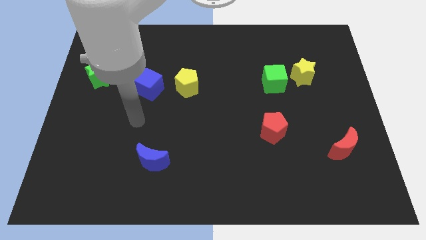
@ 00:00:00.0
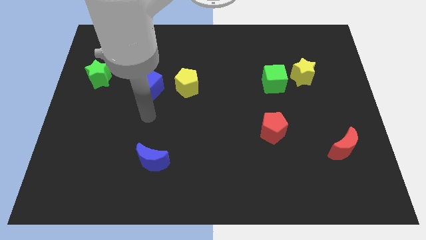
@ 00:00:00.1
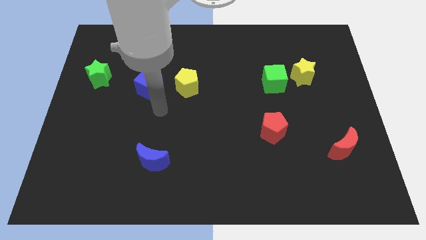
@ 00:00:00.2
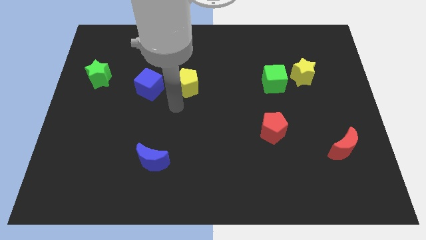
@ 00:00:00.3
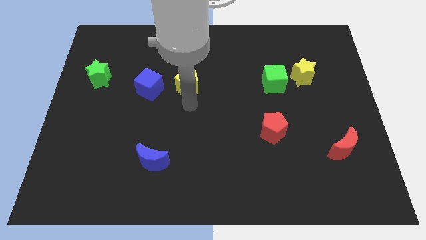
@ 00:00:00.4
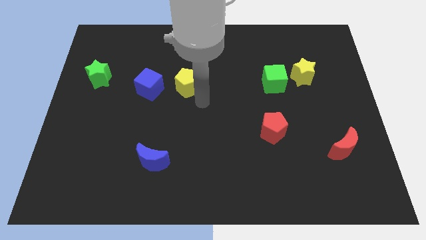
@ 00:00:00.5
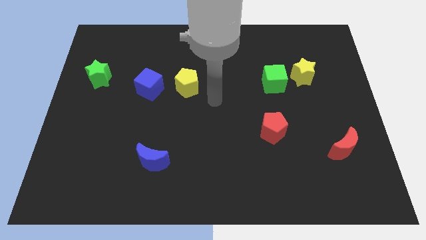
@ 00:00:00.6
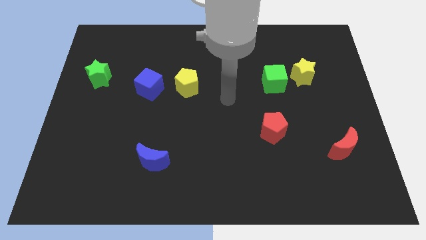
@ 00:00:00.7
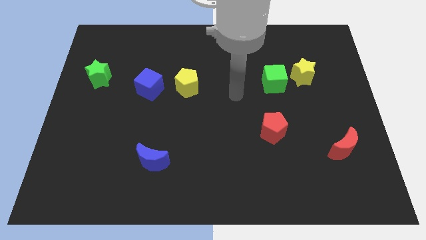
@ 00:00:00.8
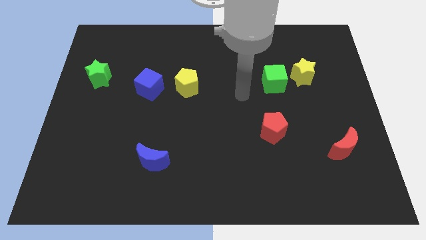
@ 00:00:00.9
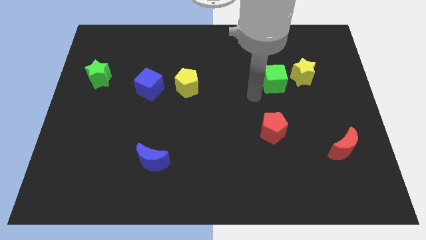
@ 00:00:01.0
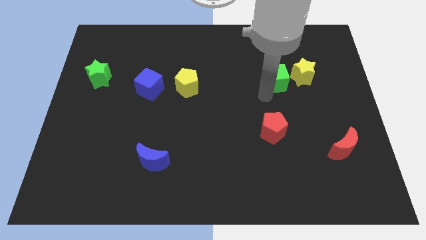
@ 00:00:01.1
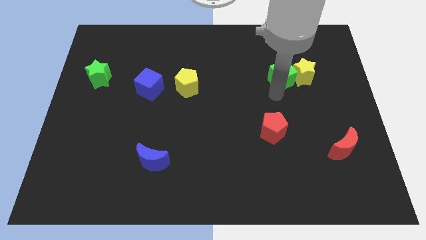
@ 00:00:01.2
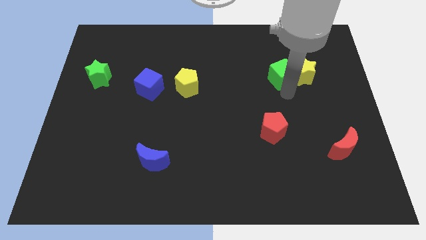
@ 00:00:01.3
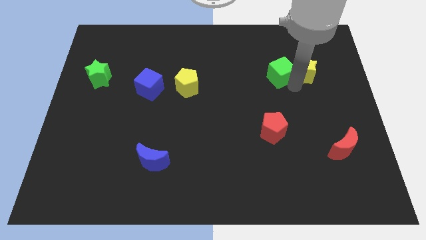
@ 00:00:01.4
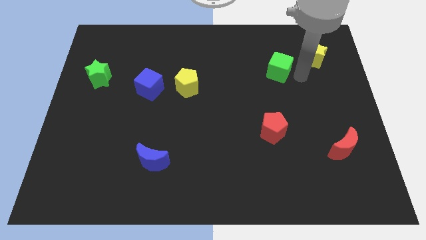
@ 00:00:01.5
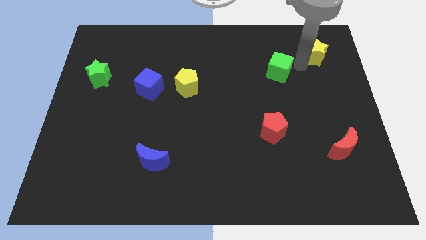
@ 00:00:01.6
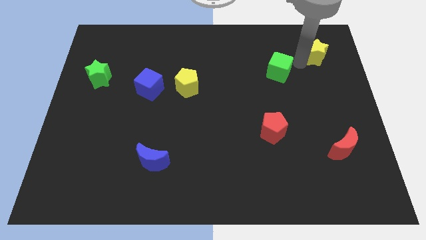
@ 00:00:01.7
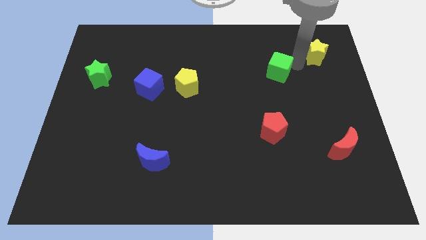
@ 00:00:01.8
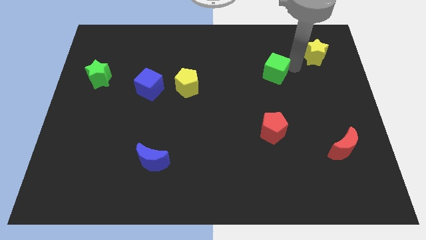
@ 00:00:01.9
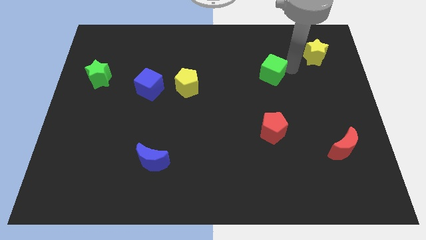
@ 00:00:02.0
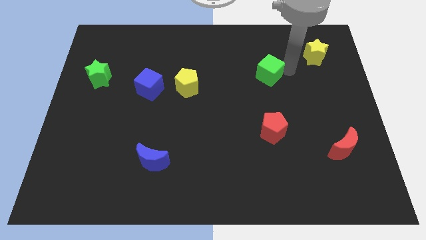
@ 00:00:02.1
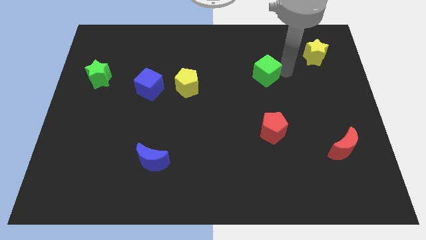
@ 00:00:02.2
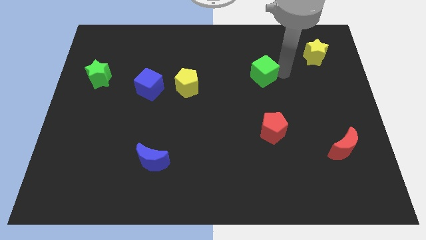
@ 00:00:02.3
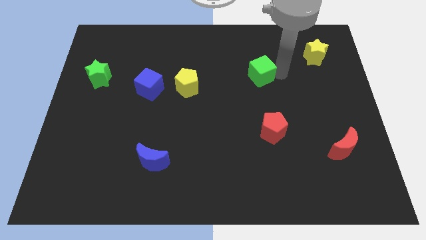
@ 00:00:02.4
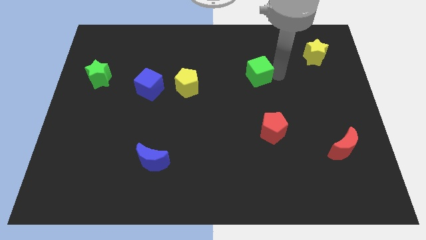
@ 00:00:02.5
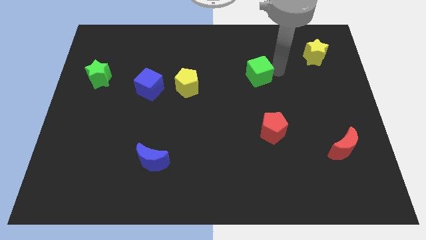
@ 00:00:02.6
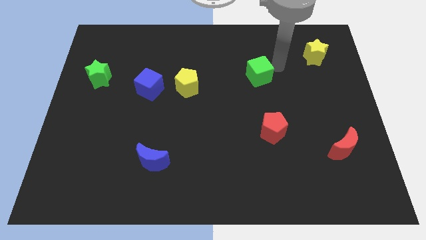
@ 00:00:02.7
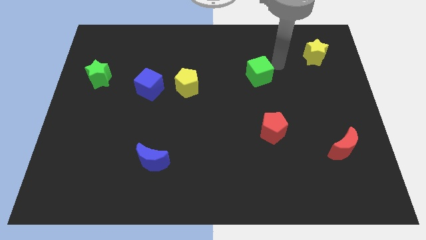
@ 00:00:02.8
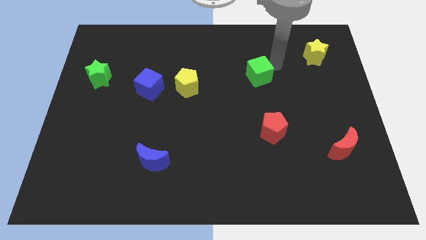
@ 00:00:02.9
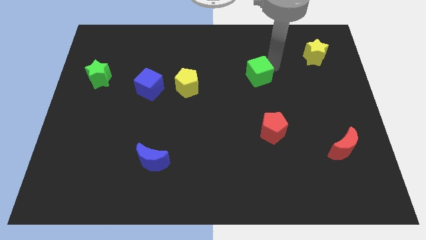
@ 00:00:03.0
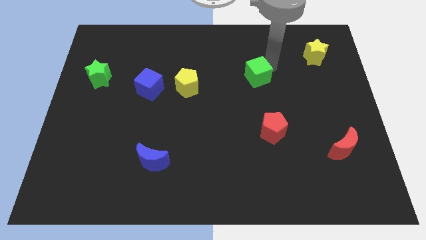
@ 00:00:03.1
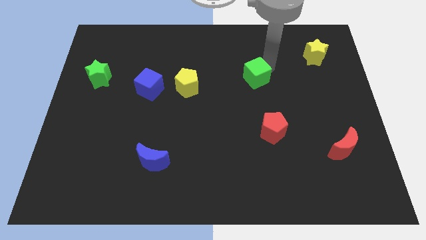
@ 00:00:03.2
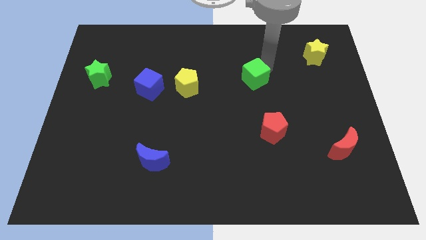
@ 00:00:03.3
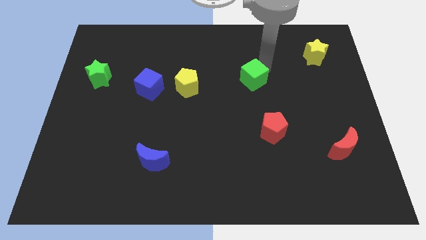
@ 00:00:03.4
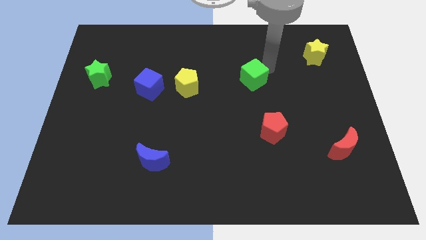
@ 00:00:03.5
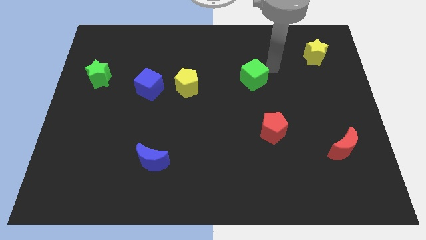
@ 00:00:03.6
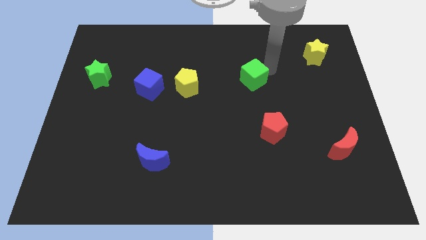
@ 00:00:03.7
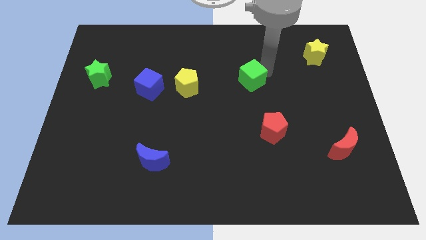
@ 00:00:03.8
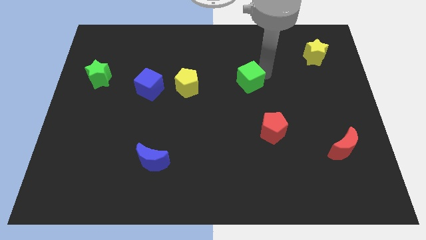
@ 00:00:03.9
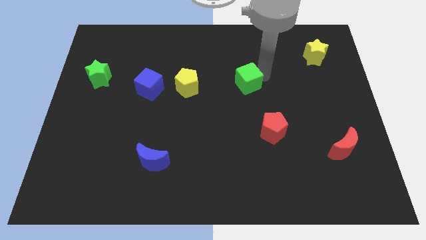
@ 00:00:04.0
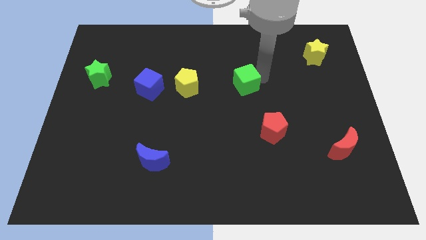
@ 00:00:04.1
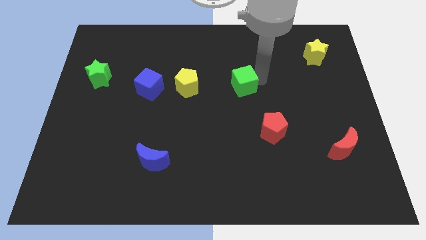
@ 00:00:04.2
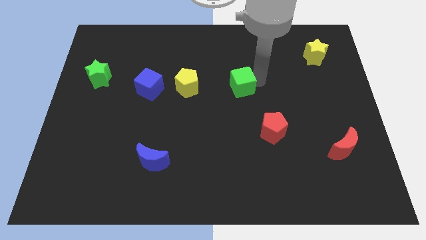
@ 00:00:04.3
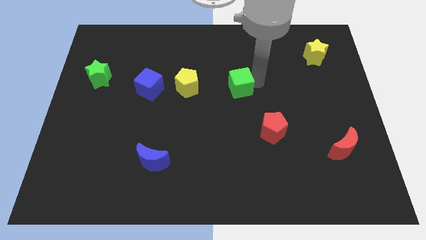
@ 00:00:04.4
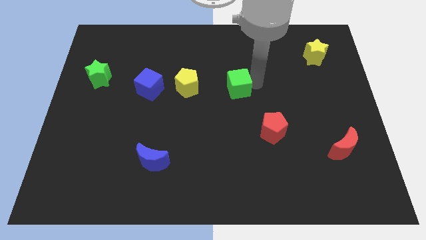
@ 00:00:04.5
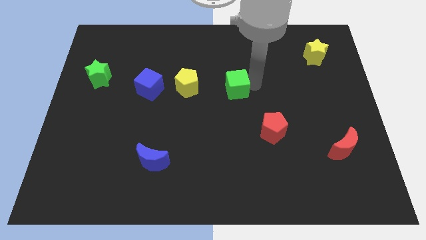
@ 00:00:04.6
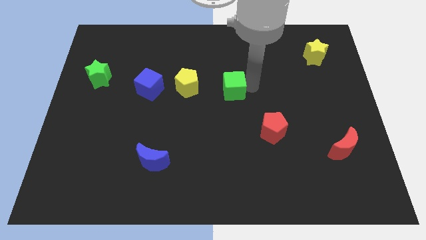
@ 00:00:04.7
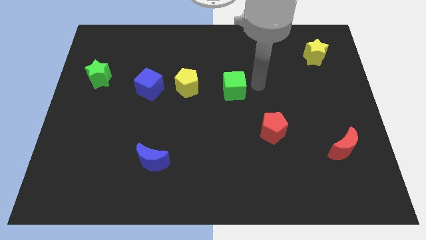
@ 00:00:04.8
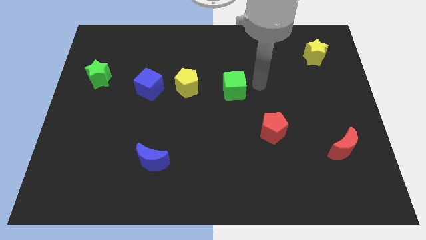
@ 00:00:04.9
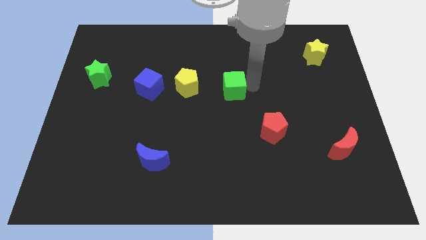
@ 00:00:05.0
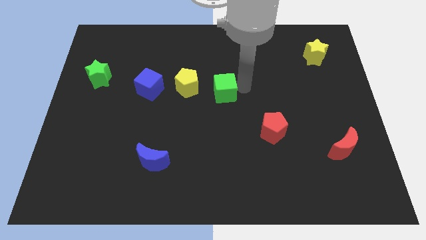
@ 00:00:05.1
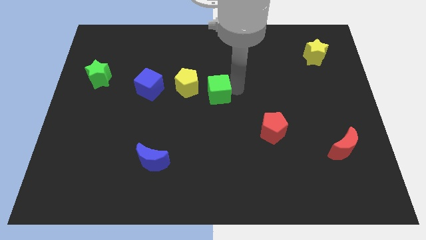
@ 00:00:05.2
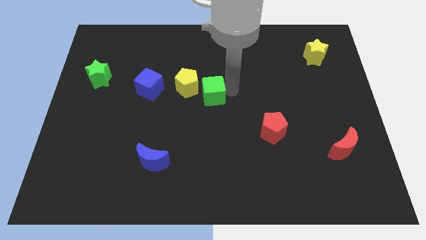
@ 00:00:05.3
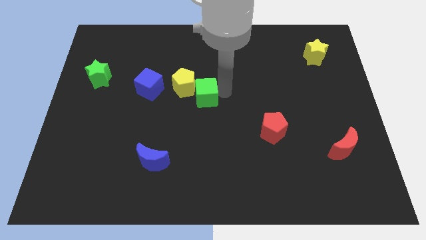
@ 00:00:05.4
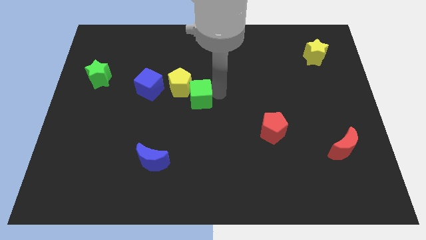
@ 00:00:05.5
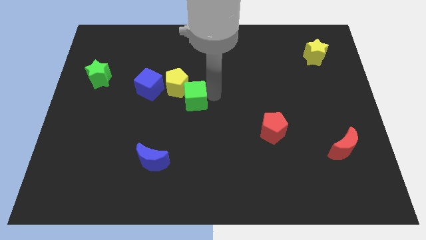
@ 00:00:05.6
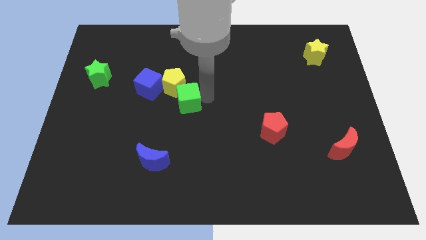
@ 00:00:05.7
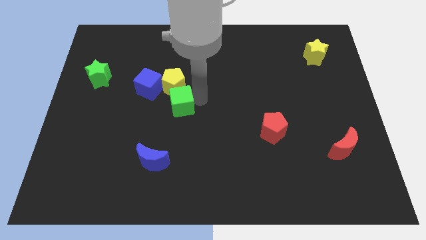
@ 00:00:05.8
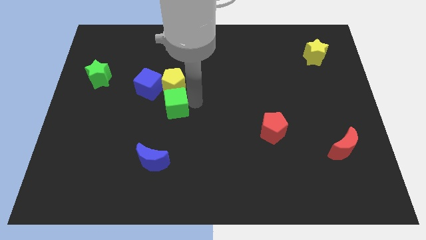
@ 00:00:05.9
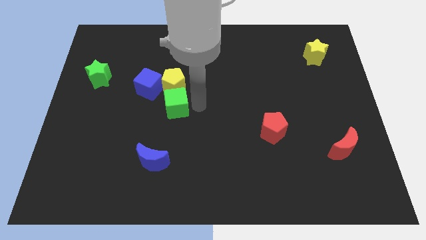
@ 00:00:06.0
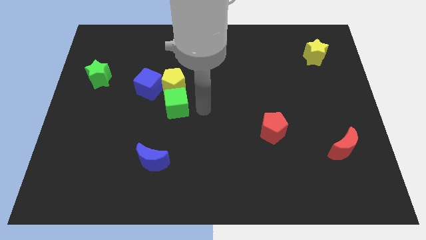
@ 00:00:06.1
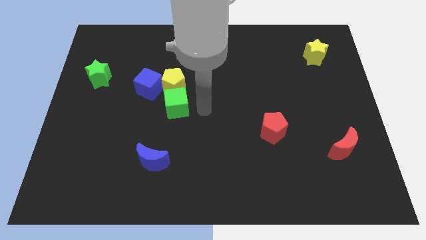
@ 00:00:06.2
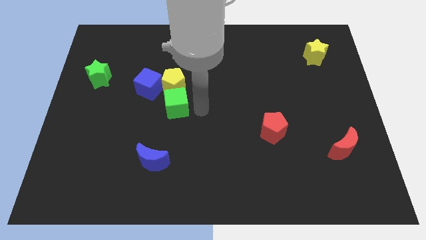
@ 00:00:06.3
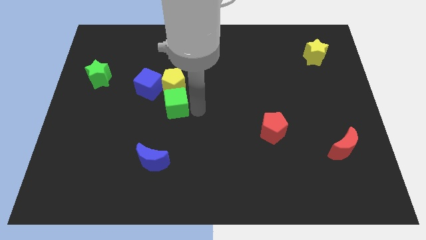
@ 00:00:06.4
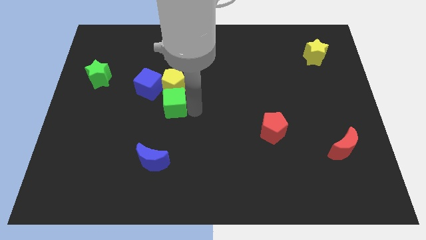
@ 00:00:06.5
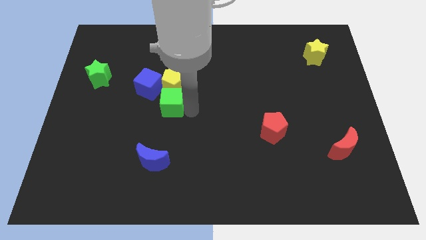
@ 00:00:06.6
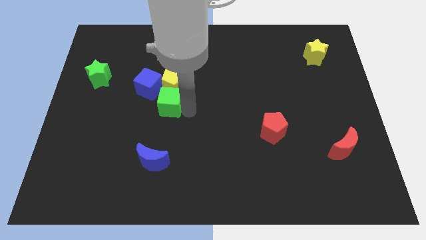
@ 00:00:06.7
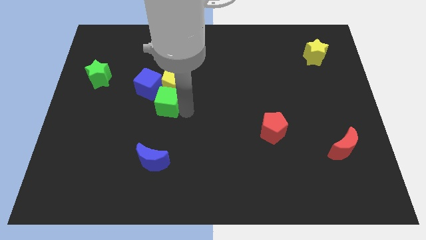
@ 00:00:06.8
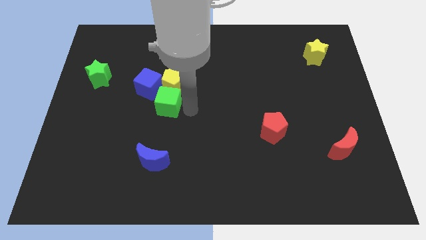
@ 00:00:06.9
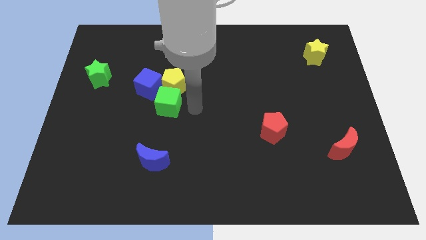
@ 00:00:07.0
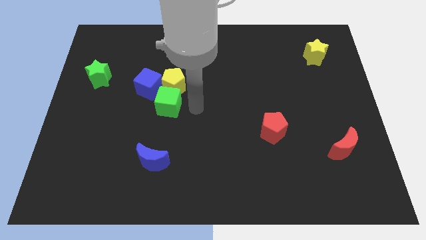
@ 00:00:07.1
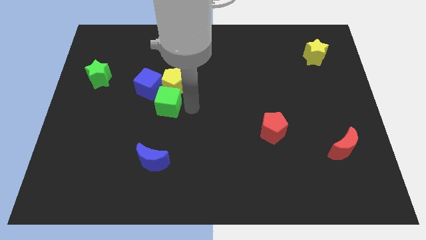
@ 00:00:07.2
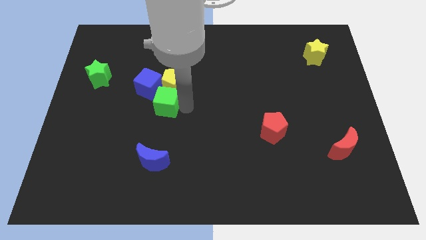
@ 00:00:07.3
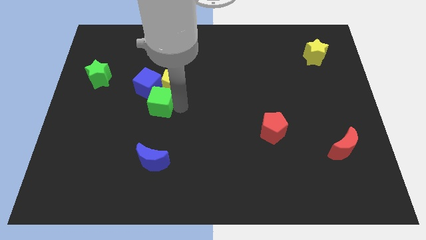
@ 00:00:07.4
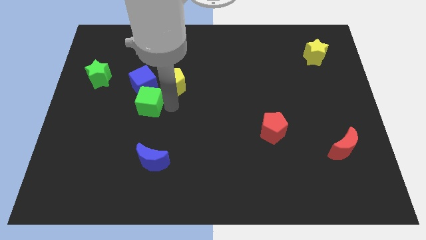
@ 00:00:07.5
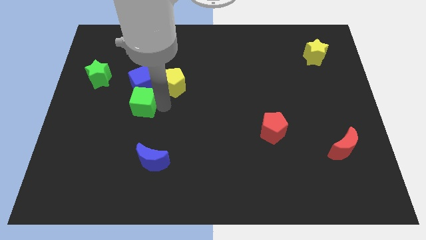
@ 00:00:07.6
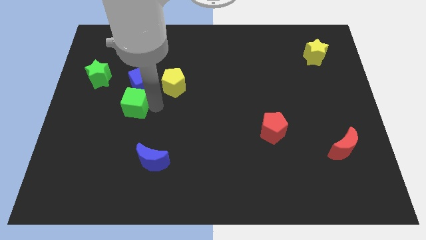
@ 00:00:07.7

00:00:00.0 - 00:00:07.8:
slide the green cube diagonally down and to the left of the blue cube
